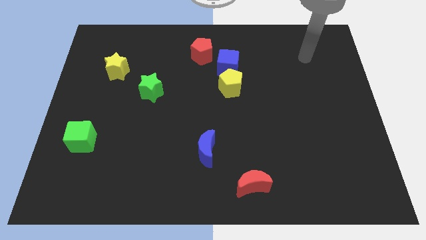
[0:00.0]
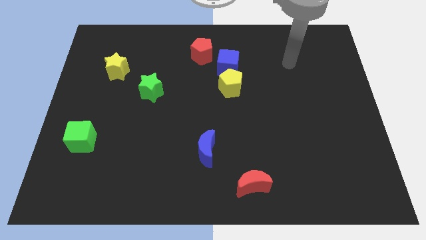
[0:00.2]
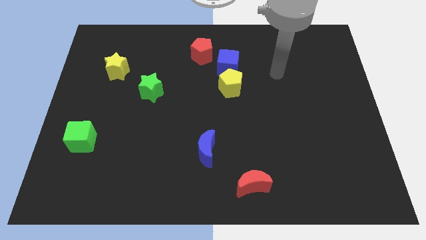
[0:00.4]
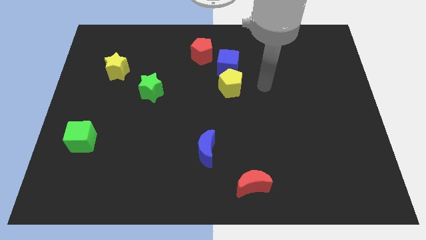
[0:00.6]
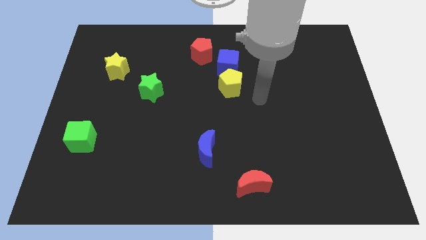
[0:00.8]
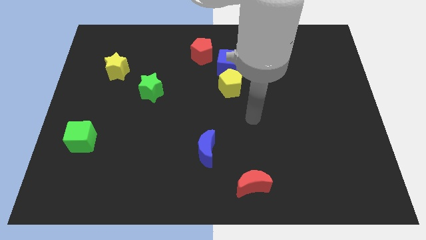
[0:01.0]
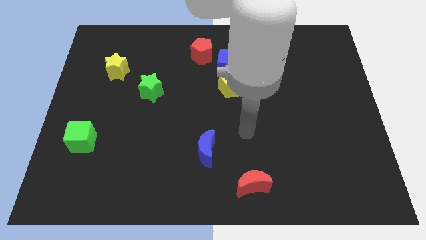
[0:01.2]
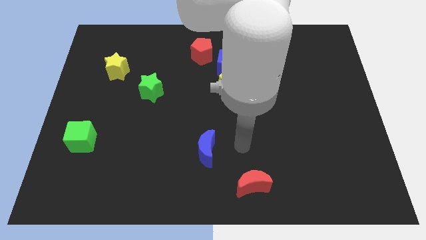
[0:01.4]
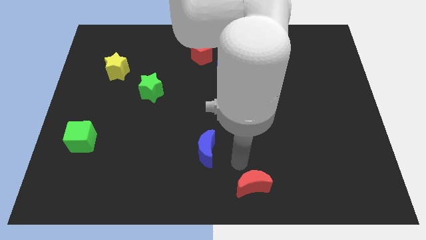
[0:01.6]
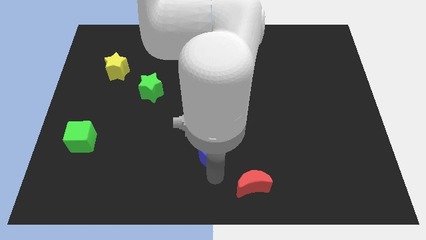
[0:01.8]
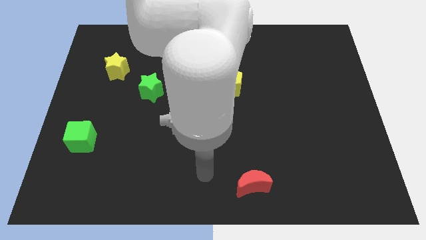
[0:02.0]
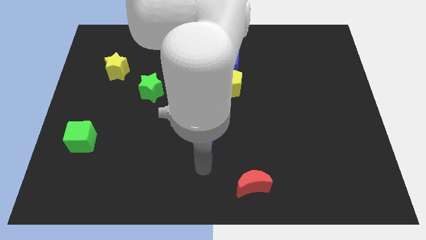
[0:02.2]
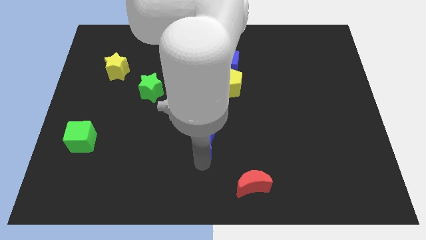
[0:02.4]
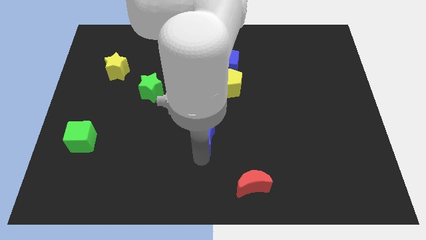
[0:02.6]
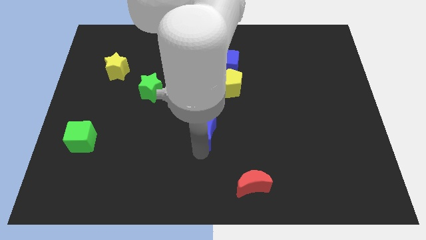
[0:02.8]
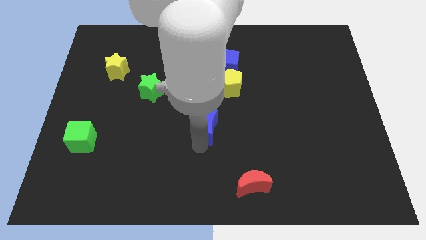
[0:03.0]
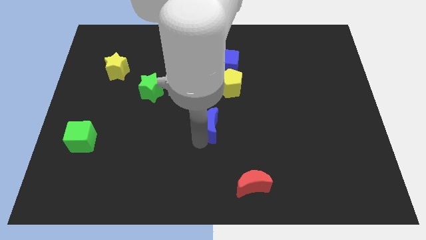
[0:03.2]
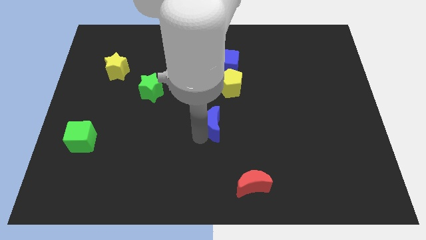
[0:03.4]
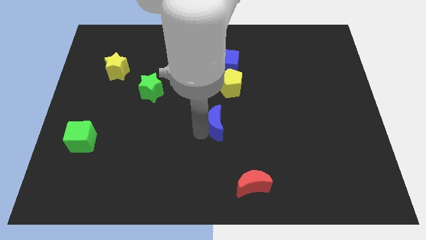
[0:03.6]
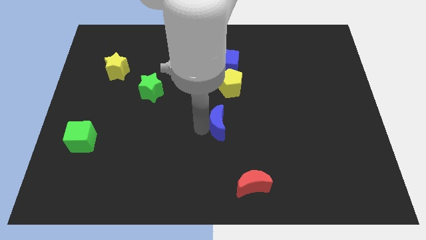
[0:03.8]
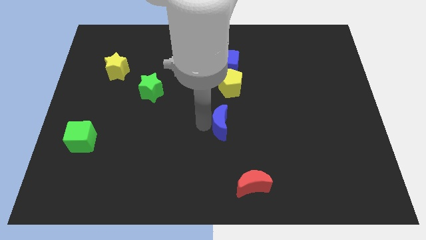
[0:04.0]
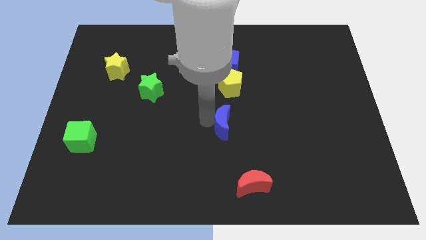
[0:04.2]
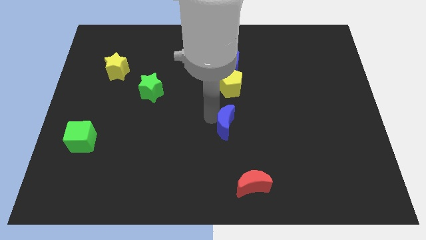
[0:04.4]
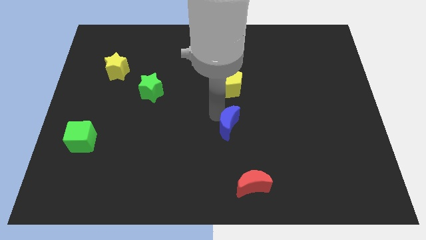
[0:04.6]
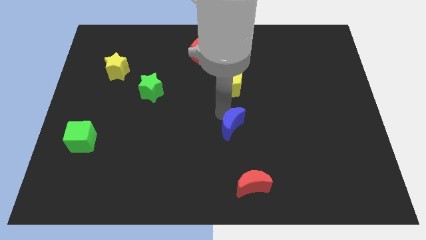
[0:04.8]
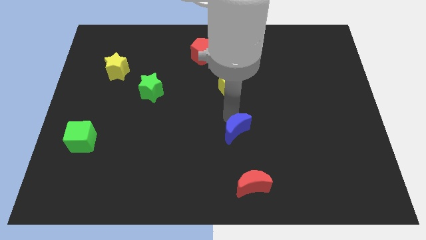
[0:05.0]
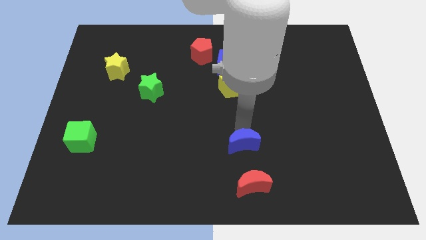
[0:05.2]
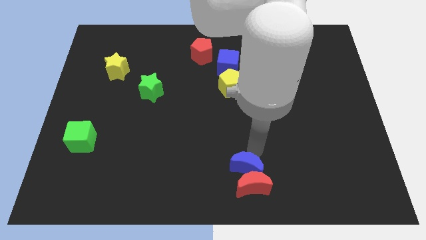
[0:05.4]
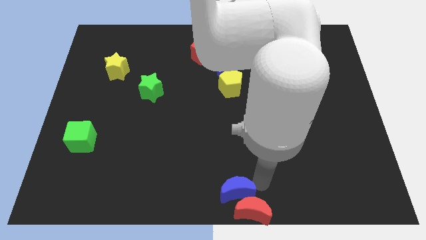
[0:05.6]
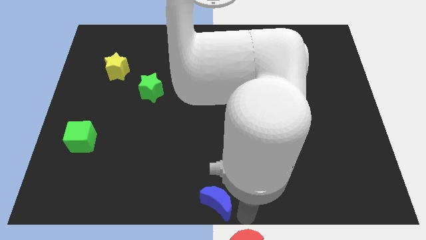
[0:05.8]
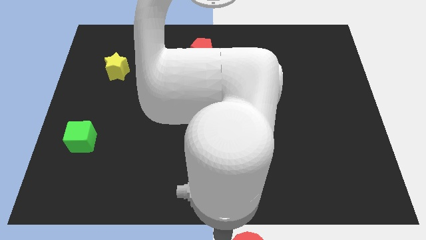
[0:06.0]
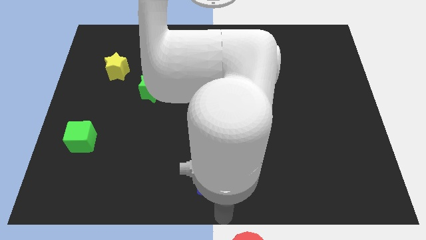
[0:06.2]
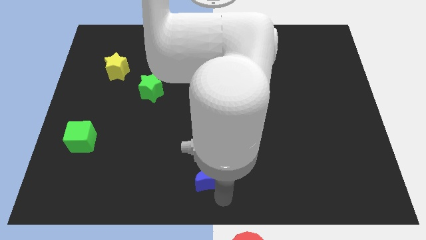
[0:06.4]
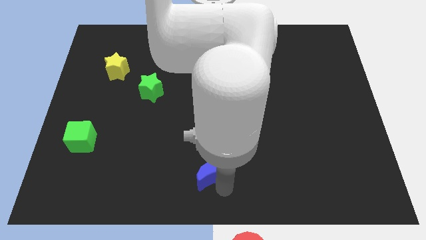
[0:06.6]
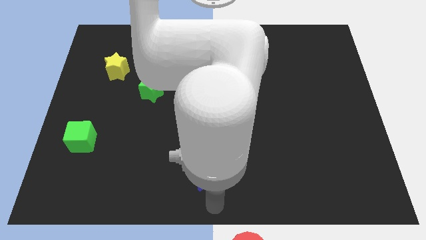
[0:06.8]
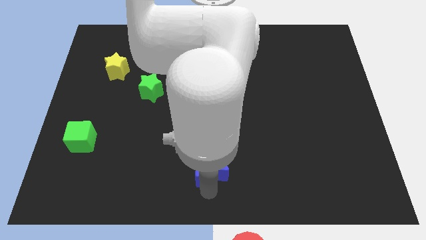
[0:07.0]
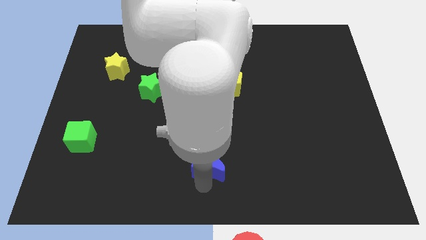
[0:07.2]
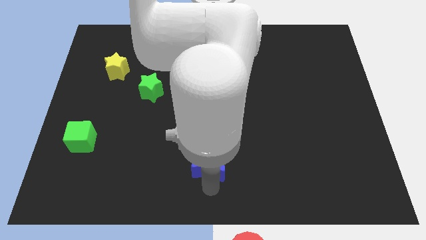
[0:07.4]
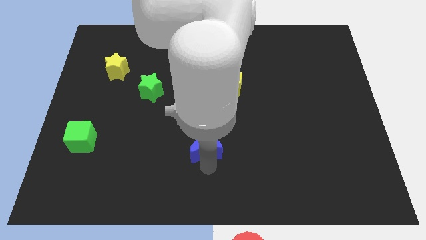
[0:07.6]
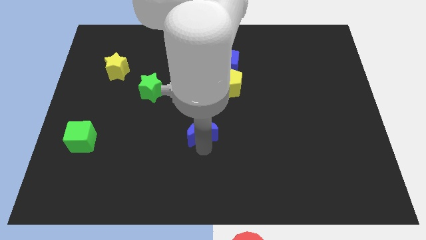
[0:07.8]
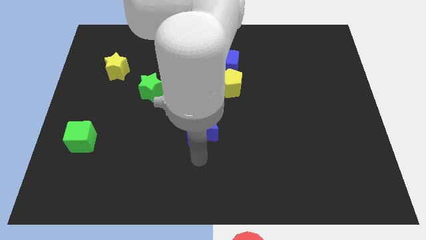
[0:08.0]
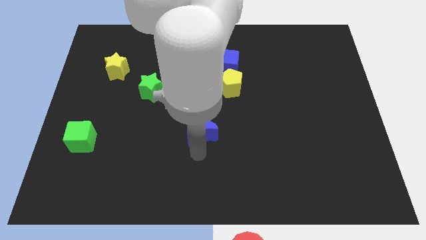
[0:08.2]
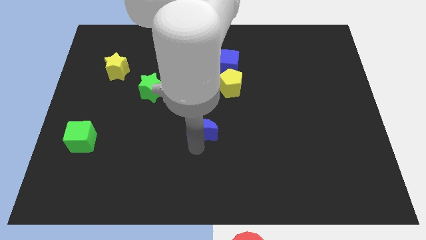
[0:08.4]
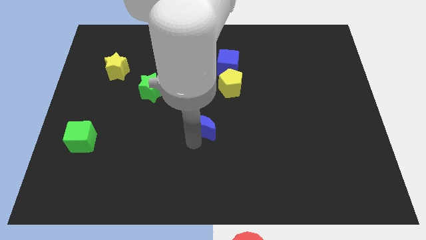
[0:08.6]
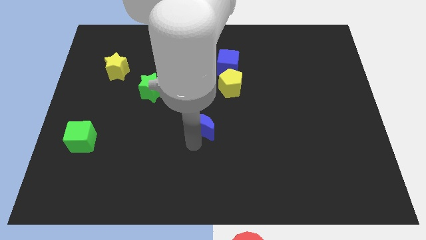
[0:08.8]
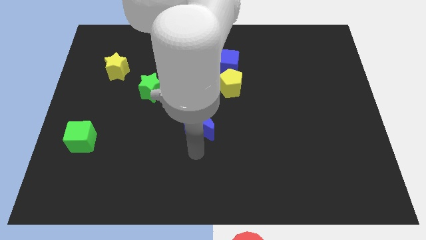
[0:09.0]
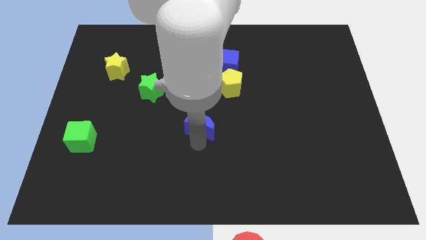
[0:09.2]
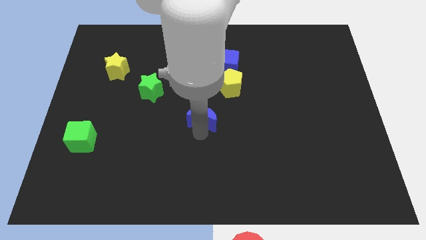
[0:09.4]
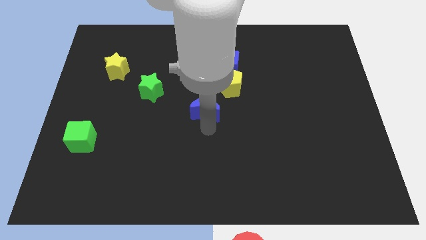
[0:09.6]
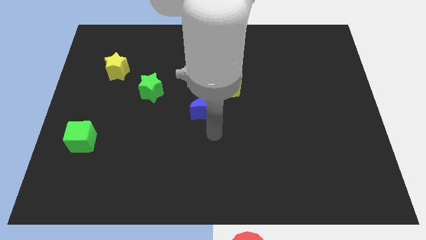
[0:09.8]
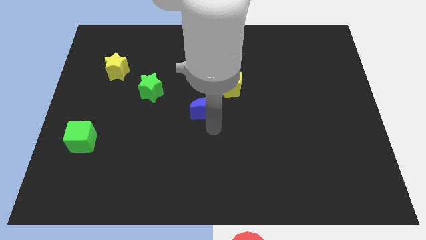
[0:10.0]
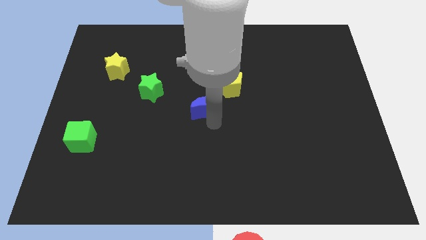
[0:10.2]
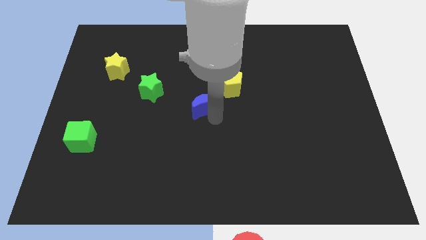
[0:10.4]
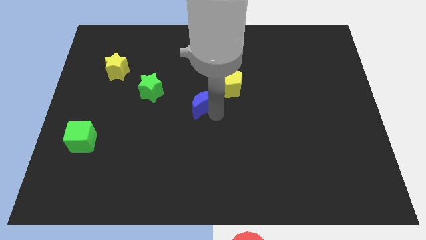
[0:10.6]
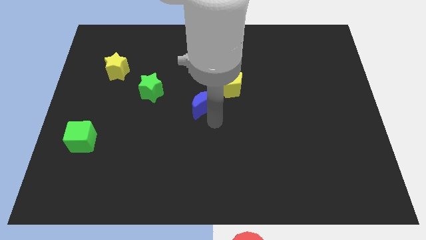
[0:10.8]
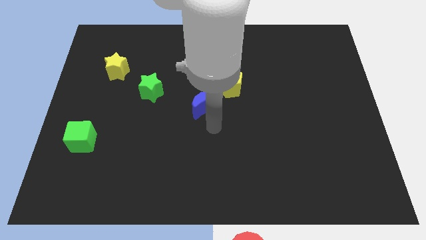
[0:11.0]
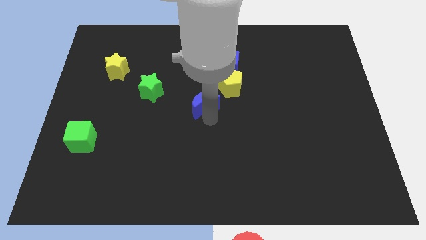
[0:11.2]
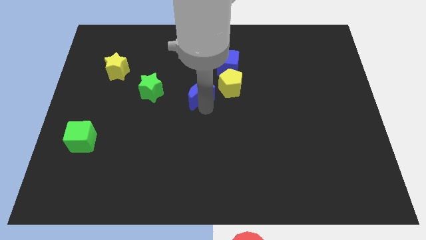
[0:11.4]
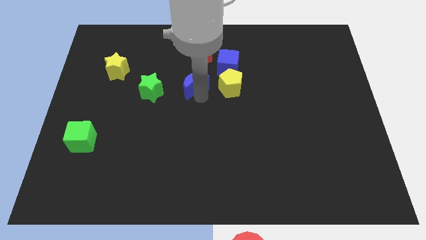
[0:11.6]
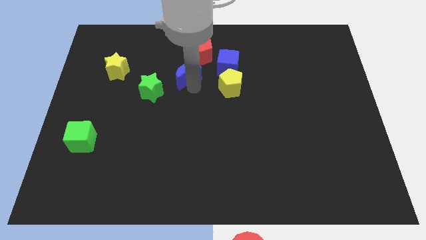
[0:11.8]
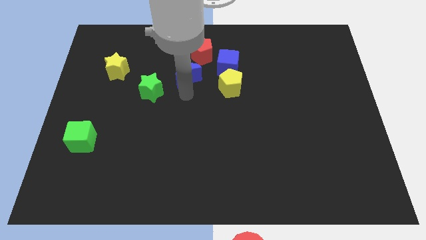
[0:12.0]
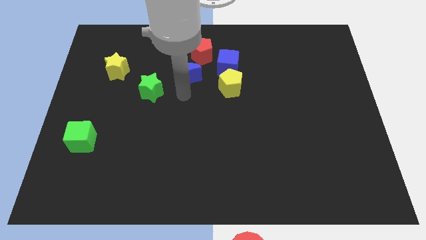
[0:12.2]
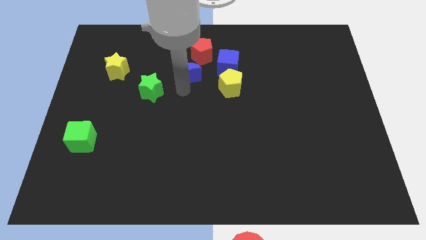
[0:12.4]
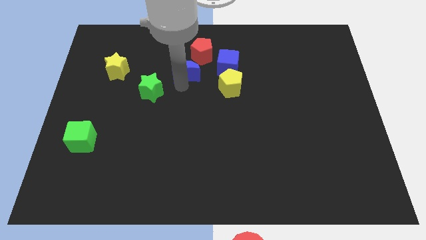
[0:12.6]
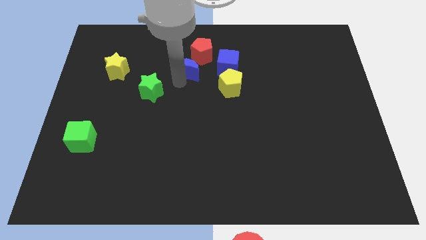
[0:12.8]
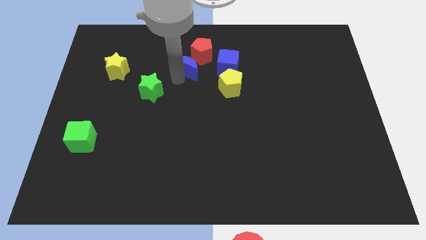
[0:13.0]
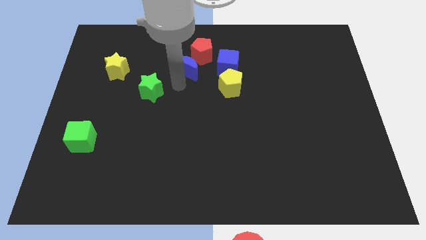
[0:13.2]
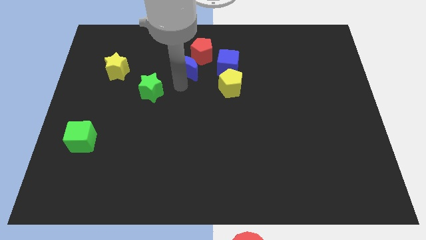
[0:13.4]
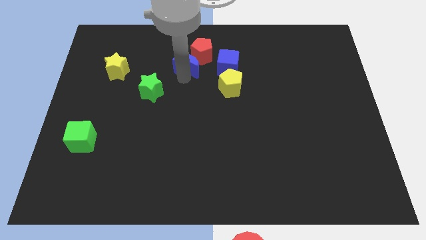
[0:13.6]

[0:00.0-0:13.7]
put the blue moon towards the red pentagon

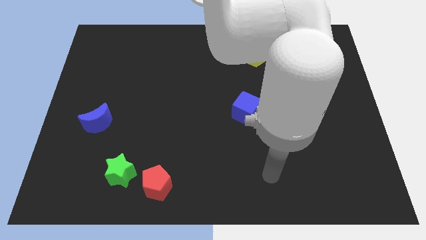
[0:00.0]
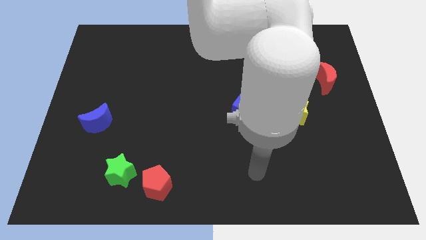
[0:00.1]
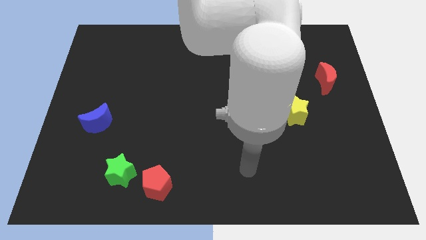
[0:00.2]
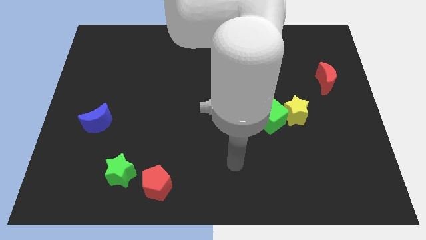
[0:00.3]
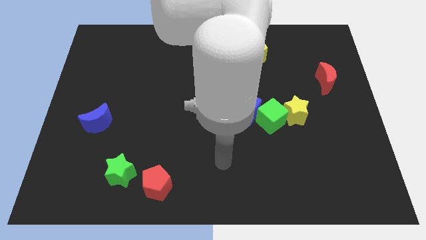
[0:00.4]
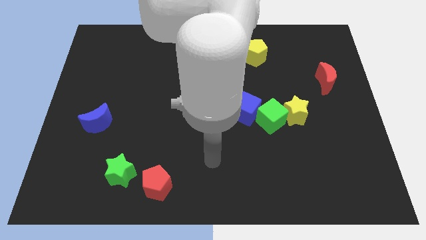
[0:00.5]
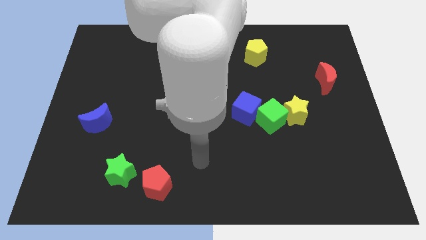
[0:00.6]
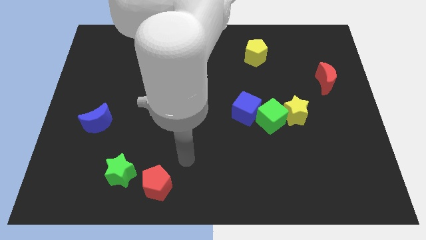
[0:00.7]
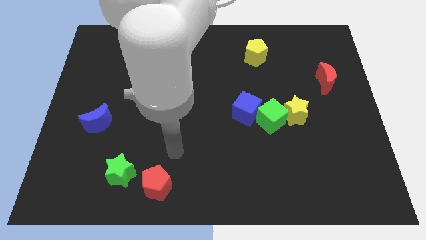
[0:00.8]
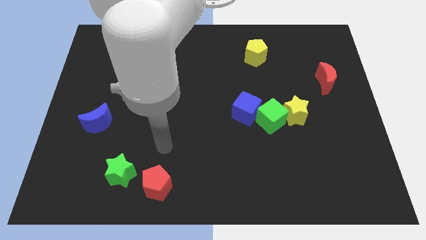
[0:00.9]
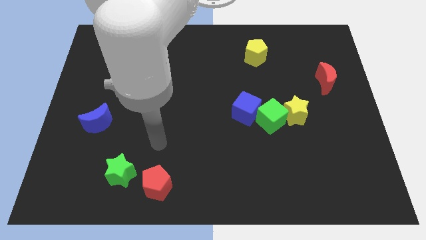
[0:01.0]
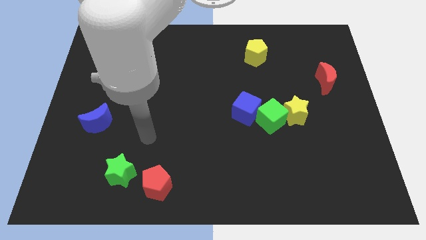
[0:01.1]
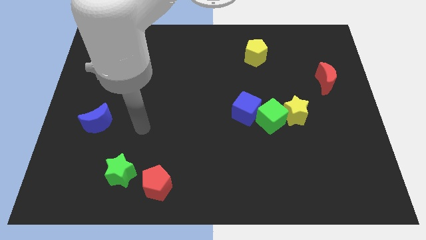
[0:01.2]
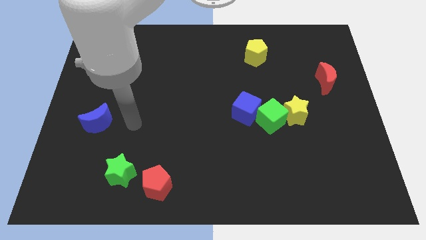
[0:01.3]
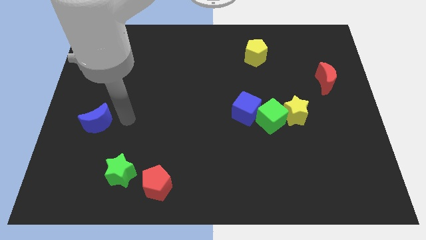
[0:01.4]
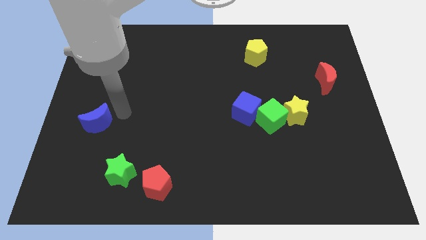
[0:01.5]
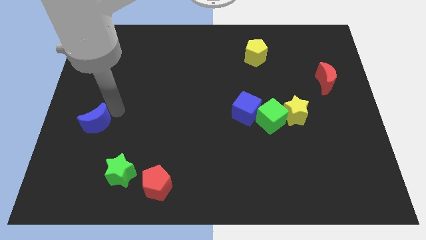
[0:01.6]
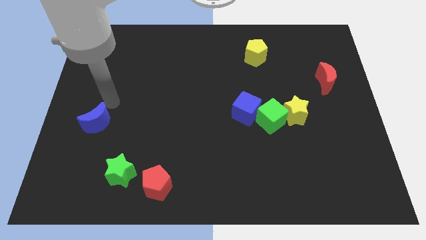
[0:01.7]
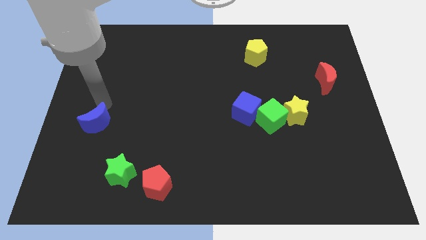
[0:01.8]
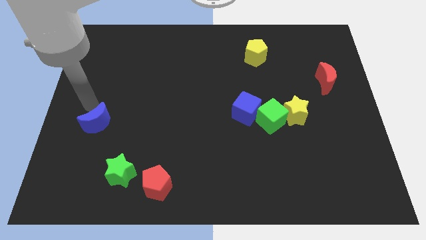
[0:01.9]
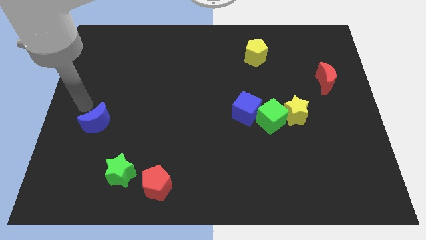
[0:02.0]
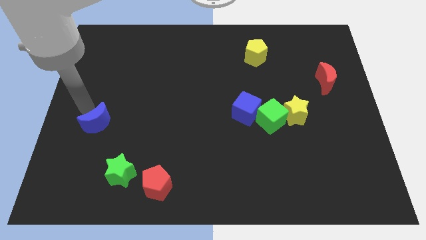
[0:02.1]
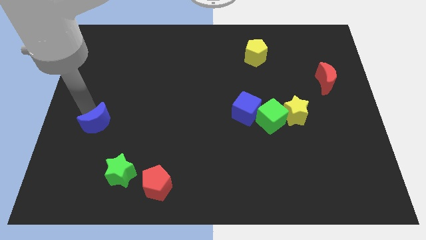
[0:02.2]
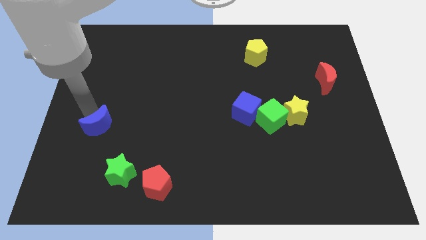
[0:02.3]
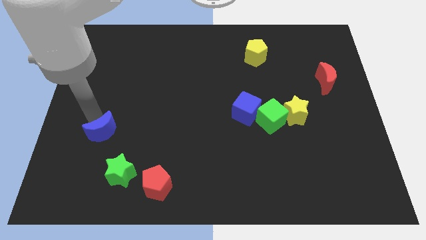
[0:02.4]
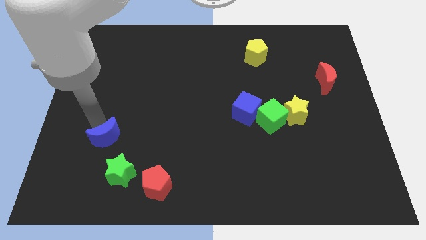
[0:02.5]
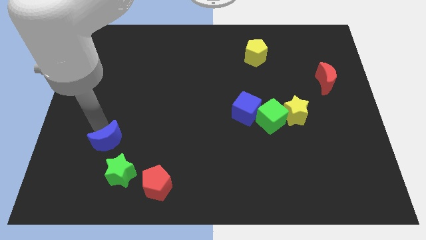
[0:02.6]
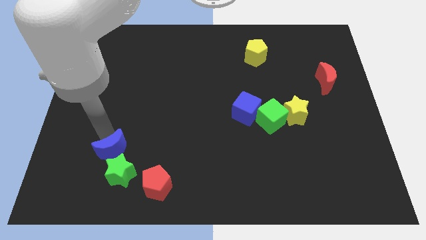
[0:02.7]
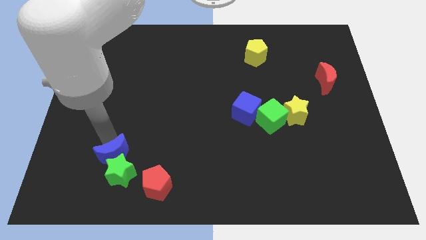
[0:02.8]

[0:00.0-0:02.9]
put the blue moon next to the green star
